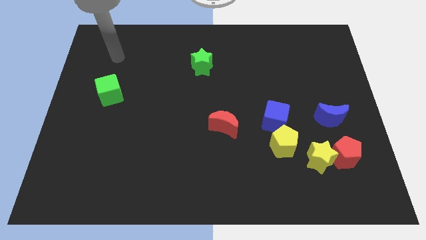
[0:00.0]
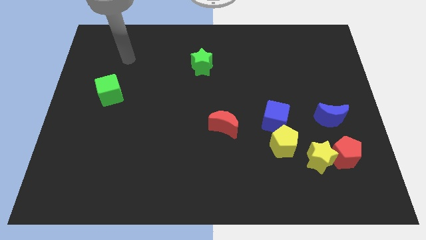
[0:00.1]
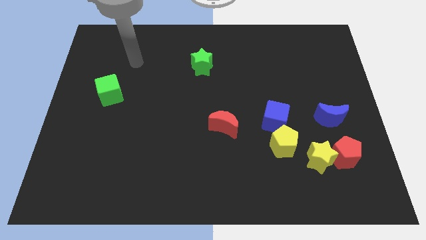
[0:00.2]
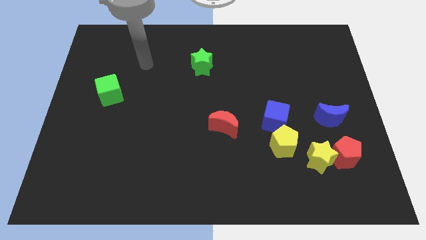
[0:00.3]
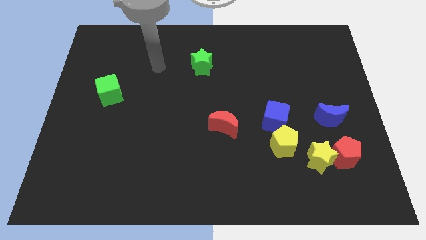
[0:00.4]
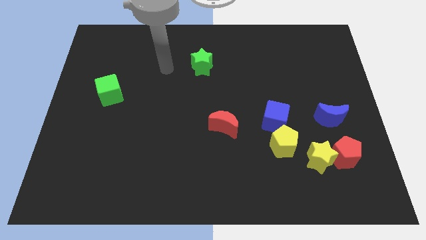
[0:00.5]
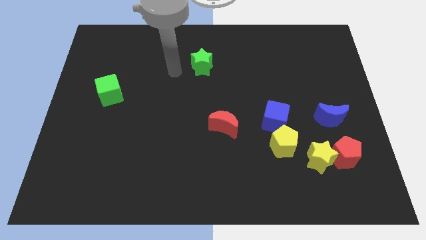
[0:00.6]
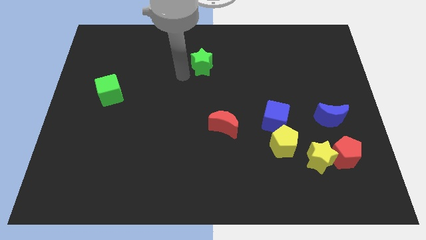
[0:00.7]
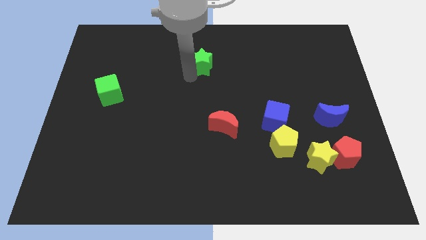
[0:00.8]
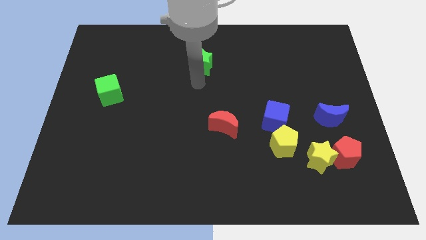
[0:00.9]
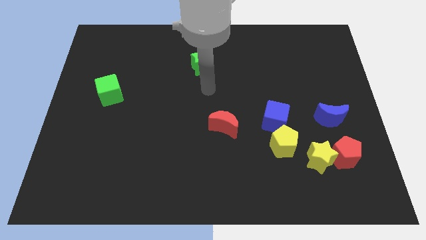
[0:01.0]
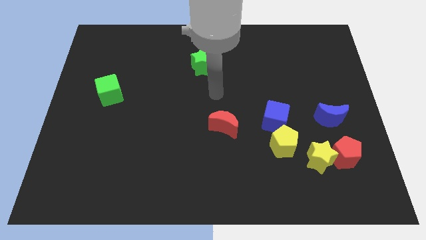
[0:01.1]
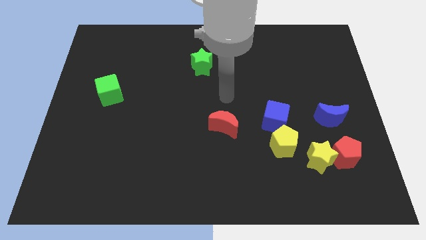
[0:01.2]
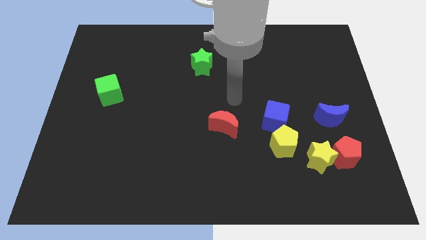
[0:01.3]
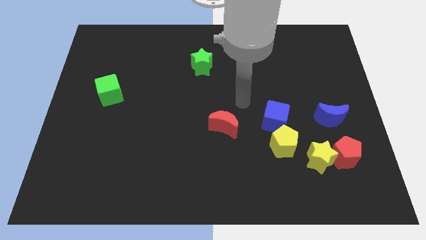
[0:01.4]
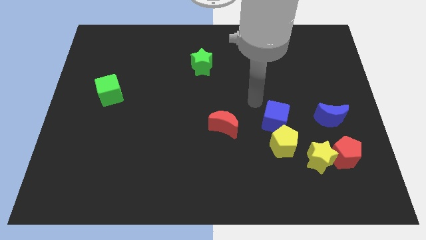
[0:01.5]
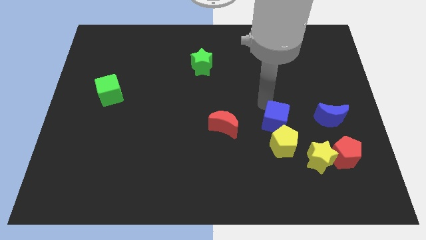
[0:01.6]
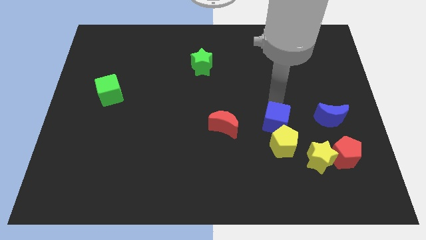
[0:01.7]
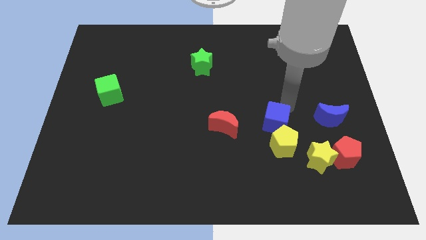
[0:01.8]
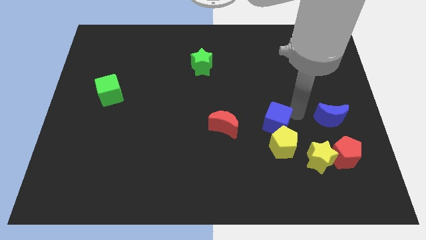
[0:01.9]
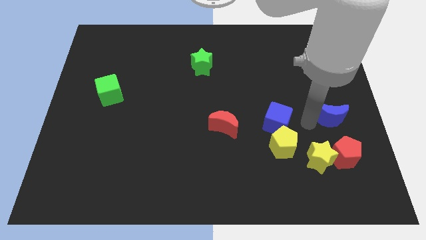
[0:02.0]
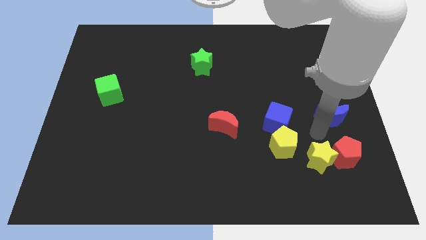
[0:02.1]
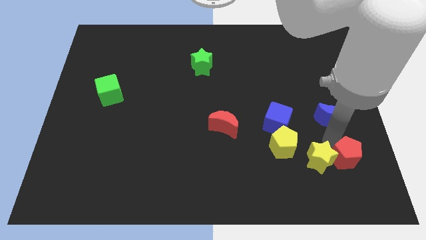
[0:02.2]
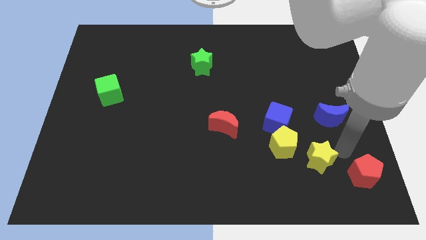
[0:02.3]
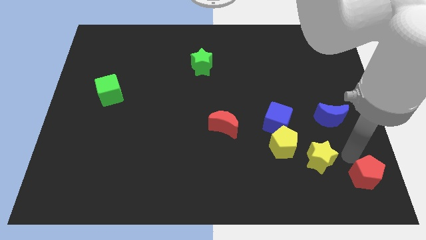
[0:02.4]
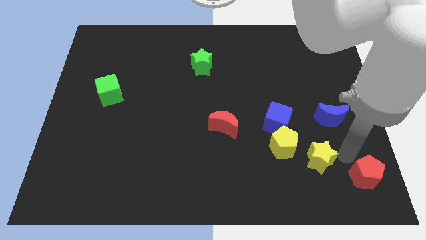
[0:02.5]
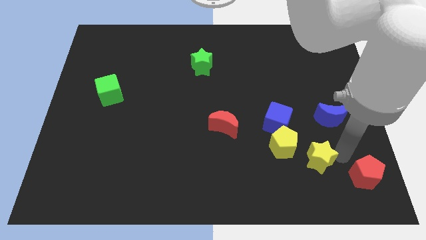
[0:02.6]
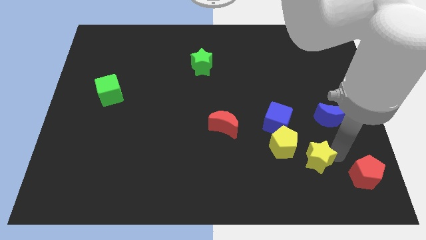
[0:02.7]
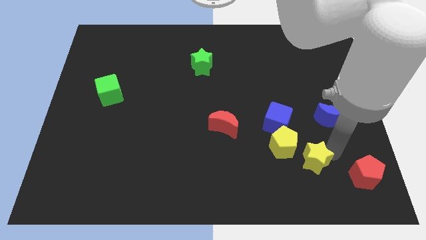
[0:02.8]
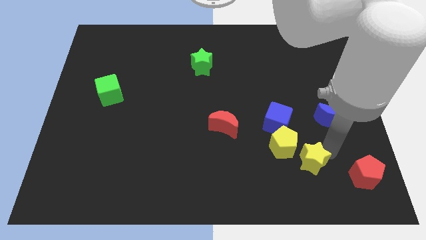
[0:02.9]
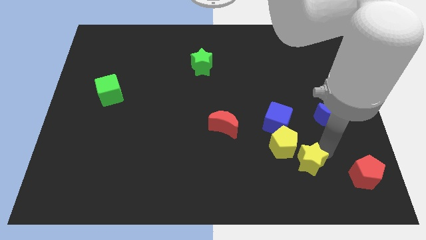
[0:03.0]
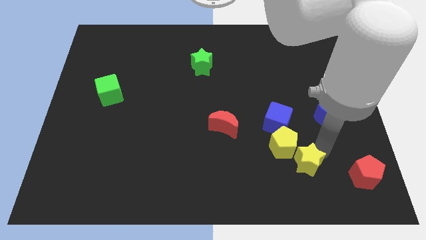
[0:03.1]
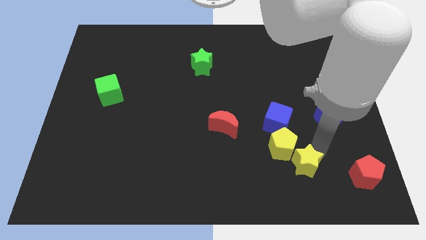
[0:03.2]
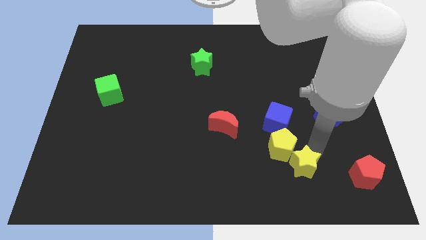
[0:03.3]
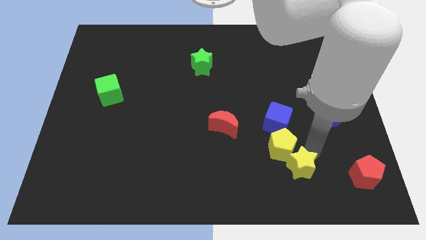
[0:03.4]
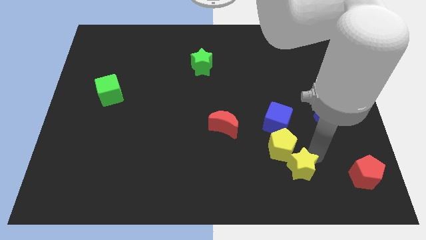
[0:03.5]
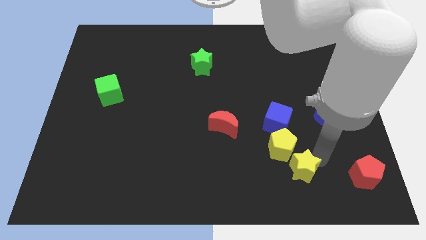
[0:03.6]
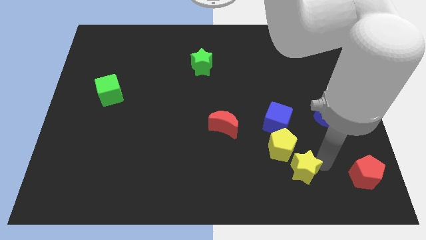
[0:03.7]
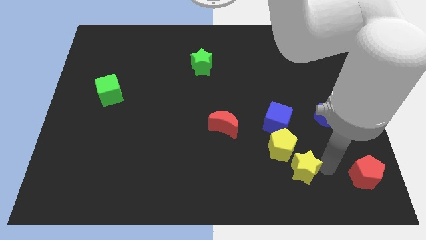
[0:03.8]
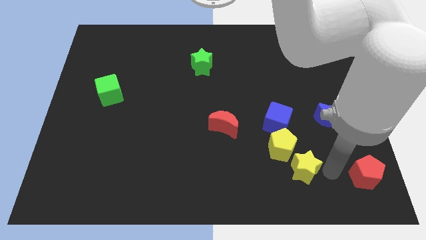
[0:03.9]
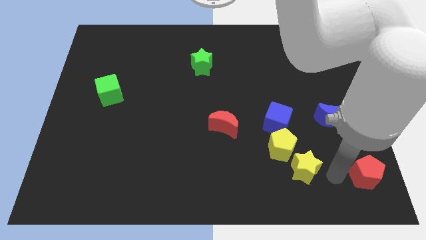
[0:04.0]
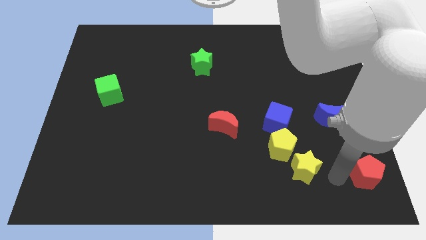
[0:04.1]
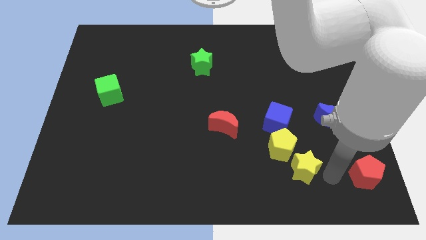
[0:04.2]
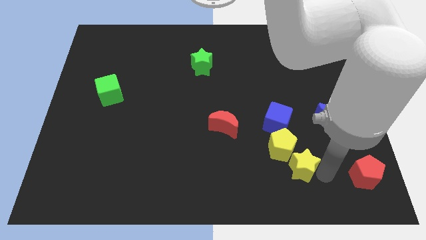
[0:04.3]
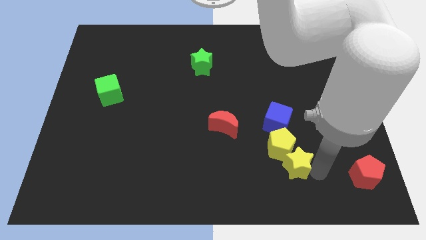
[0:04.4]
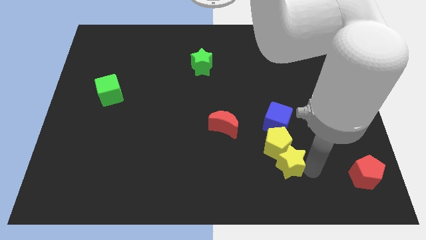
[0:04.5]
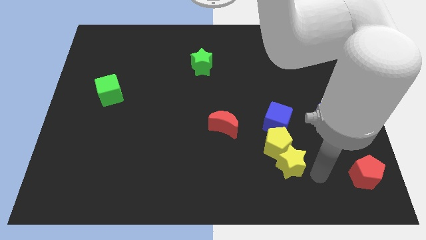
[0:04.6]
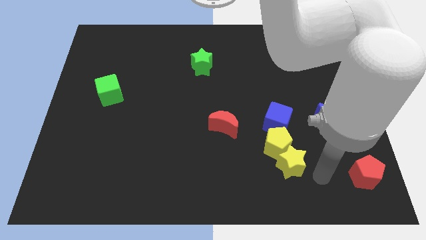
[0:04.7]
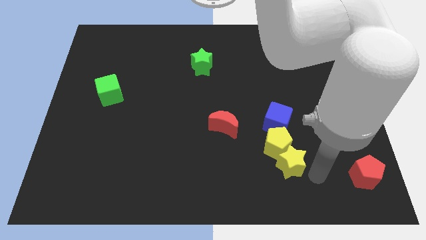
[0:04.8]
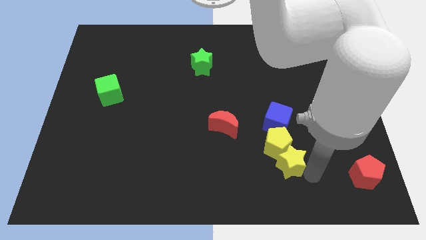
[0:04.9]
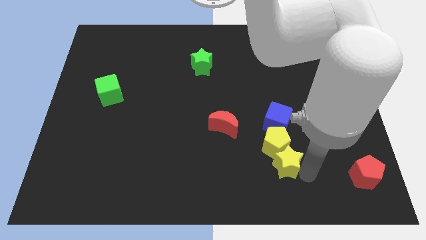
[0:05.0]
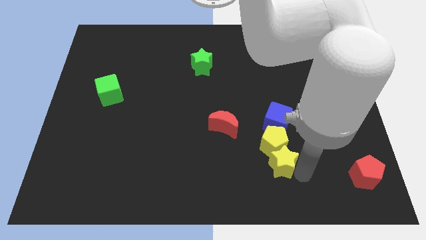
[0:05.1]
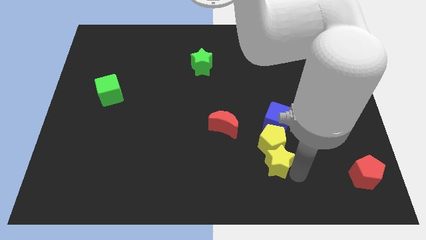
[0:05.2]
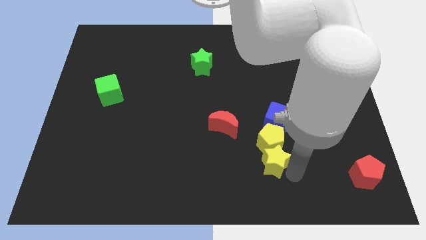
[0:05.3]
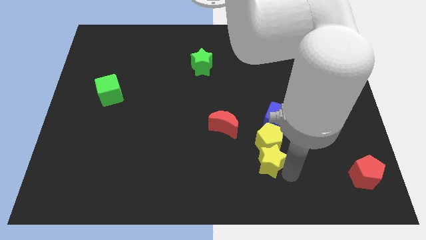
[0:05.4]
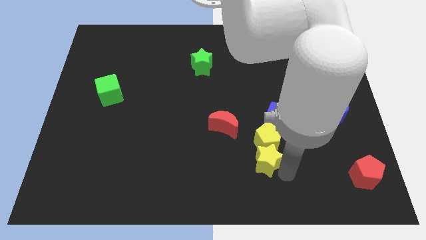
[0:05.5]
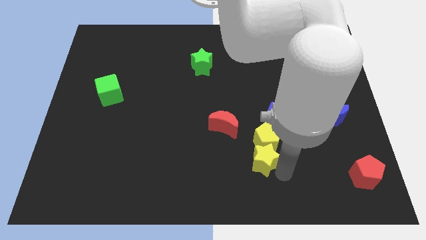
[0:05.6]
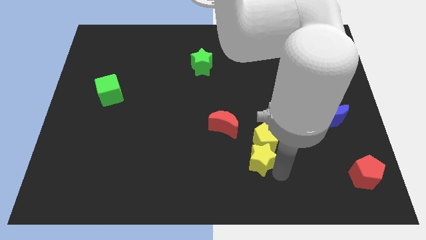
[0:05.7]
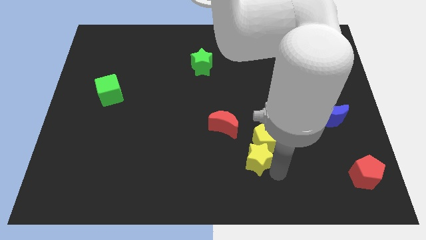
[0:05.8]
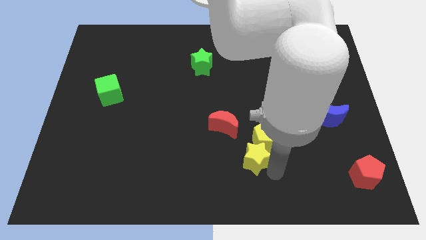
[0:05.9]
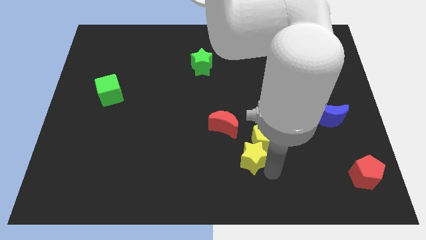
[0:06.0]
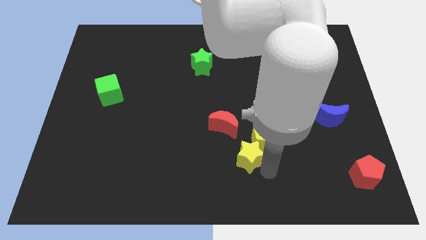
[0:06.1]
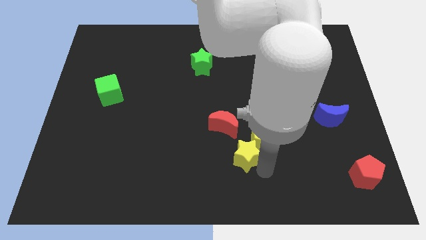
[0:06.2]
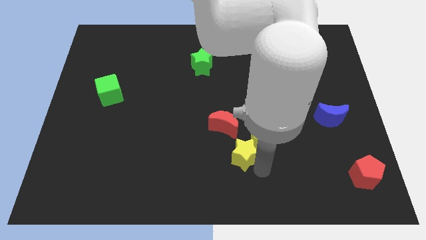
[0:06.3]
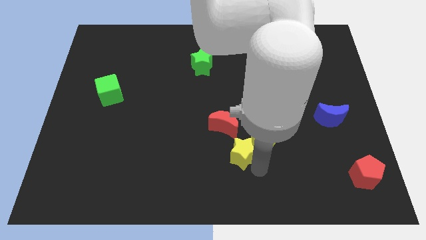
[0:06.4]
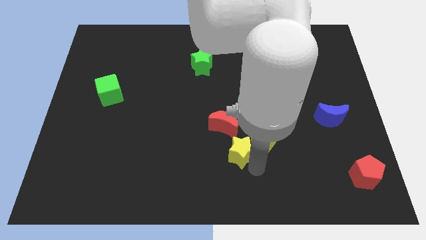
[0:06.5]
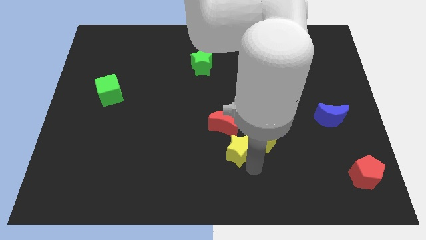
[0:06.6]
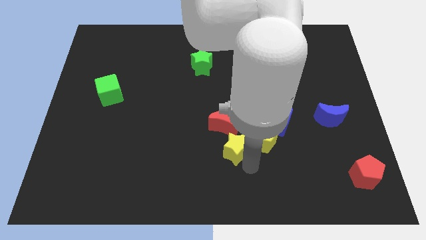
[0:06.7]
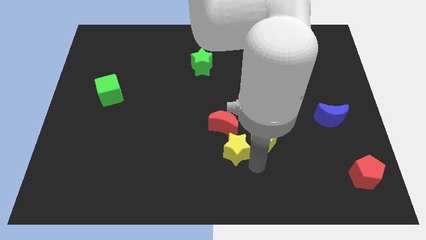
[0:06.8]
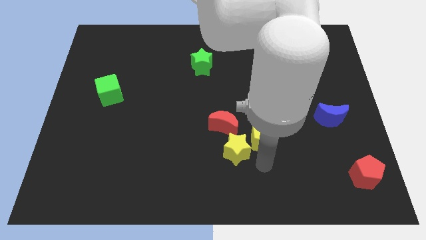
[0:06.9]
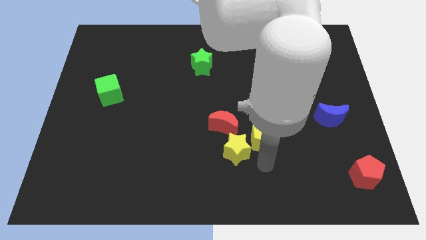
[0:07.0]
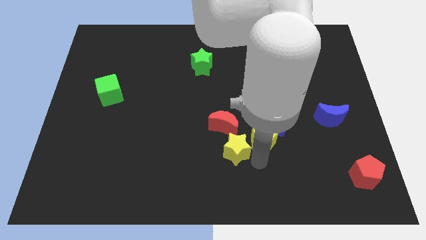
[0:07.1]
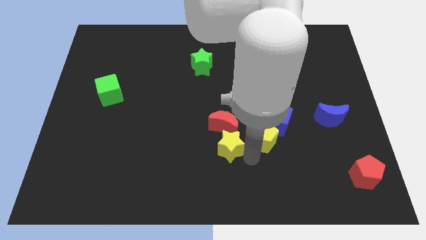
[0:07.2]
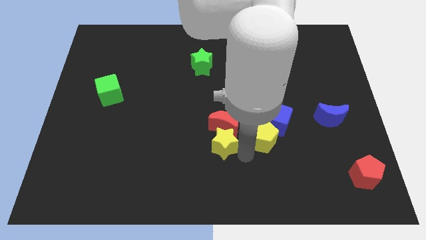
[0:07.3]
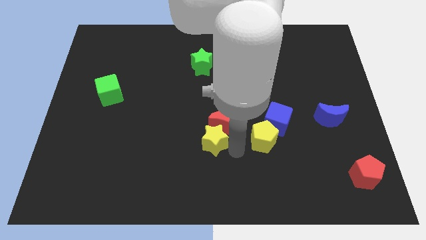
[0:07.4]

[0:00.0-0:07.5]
push the yellow star to the left of the red moon
